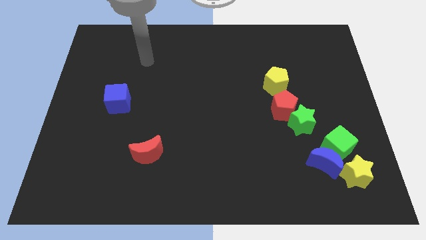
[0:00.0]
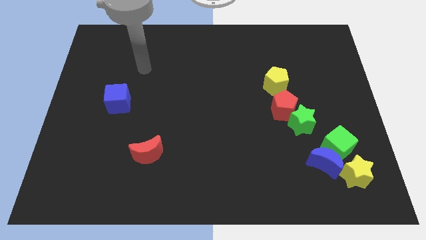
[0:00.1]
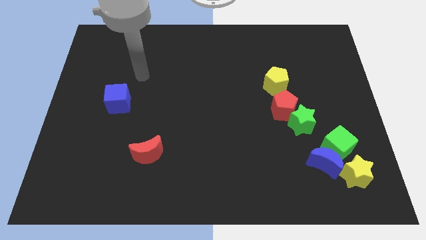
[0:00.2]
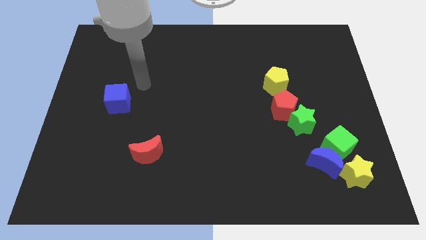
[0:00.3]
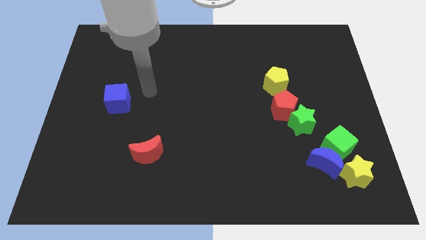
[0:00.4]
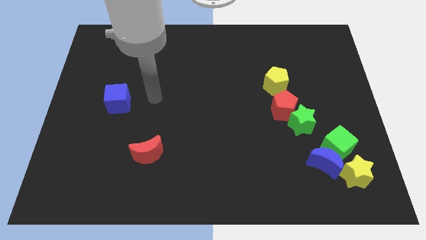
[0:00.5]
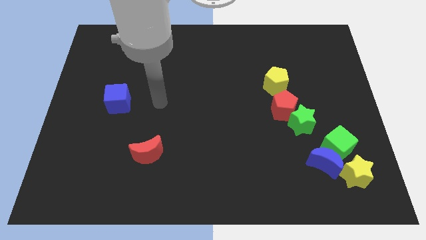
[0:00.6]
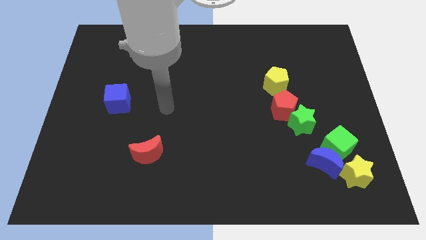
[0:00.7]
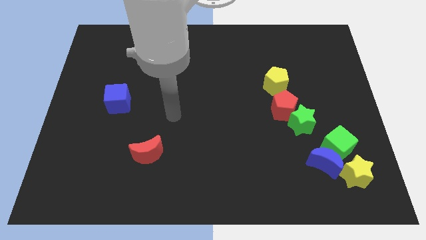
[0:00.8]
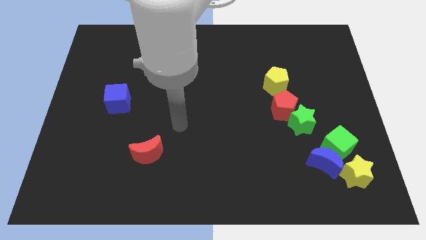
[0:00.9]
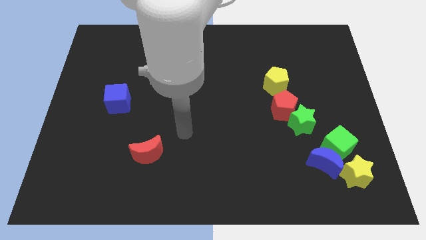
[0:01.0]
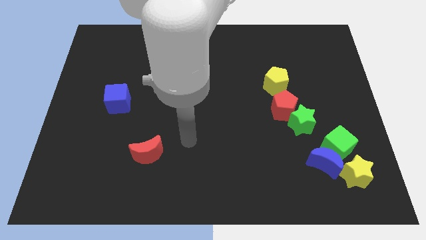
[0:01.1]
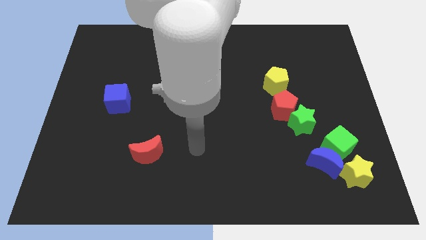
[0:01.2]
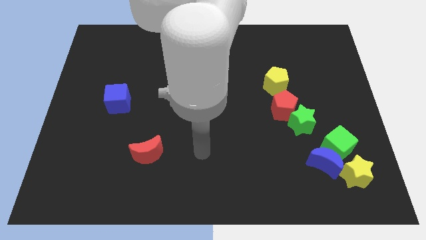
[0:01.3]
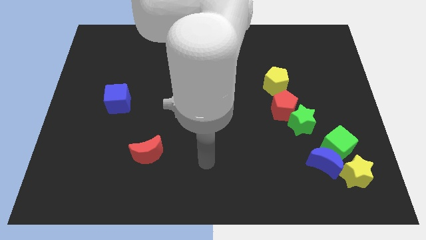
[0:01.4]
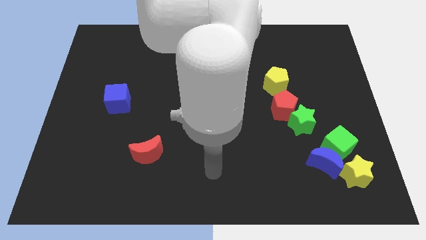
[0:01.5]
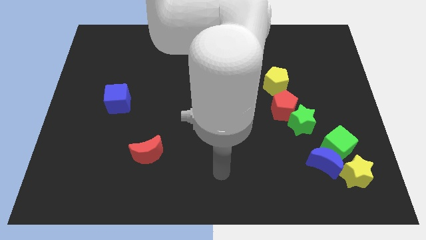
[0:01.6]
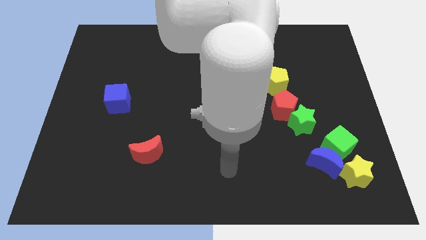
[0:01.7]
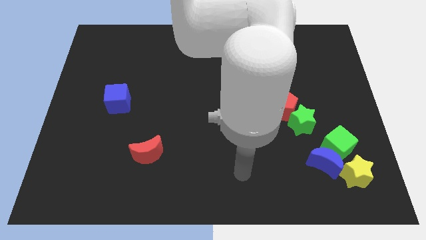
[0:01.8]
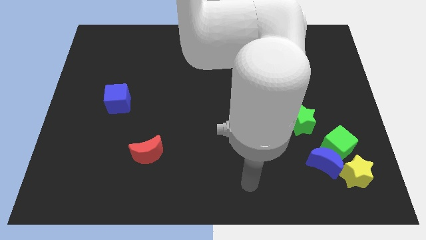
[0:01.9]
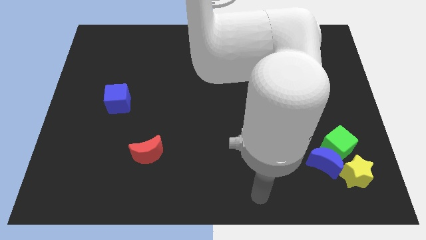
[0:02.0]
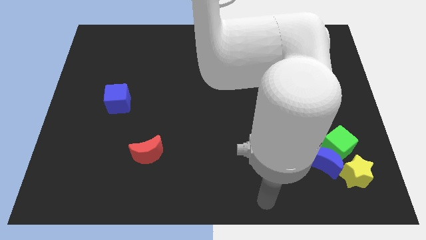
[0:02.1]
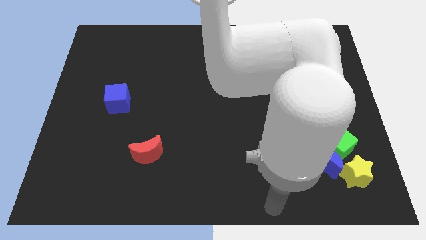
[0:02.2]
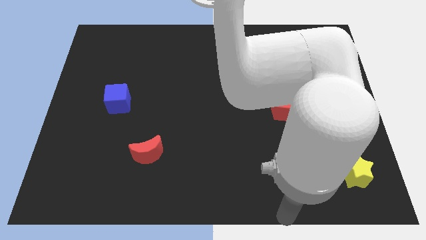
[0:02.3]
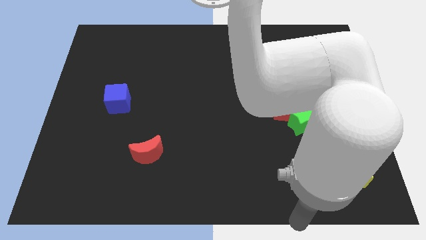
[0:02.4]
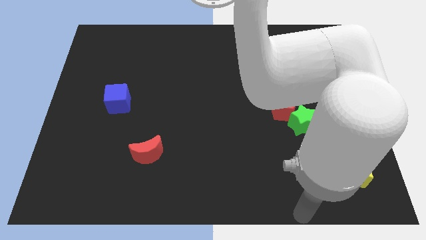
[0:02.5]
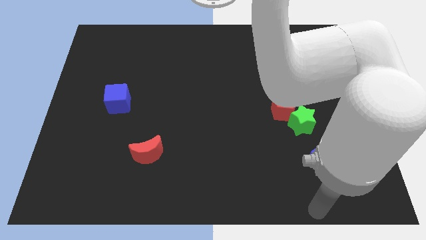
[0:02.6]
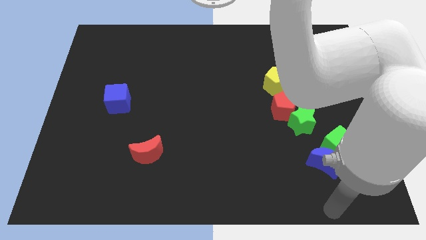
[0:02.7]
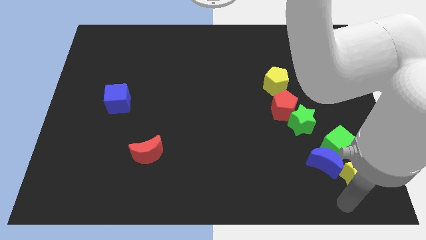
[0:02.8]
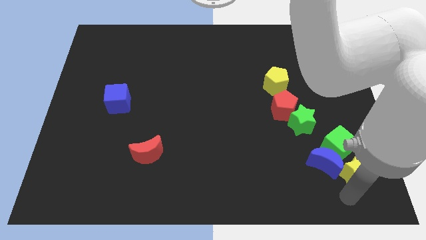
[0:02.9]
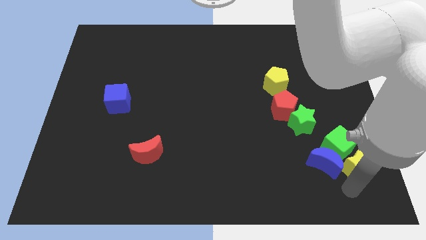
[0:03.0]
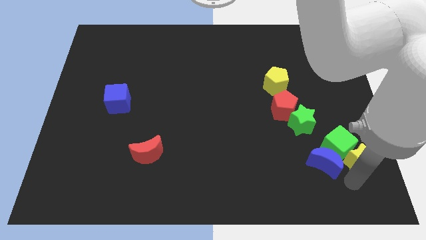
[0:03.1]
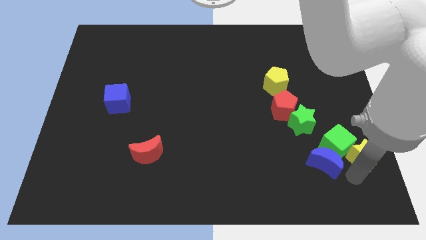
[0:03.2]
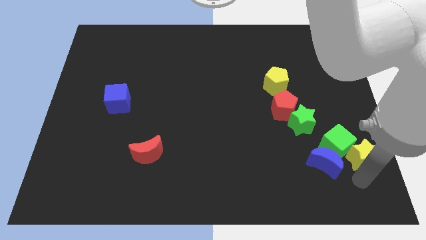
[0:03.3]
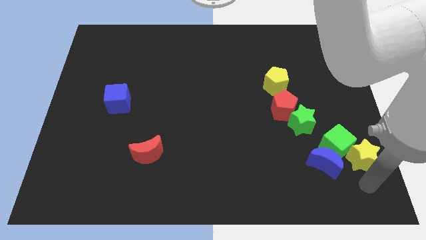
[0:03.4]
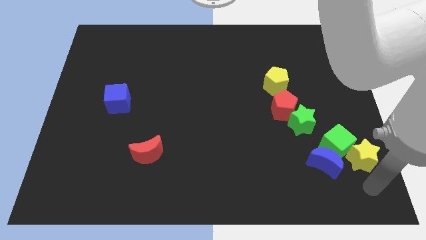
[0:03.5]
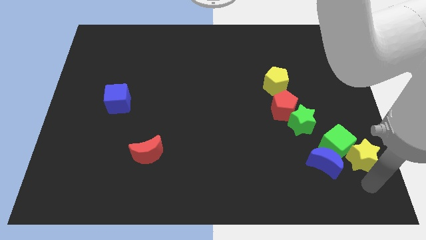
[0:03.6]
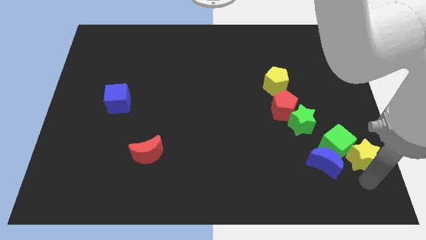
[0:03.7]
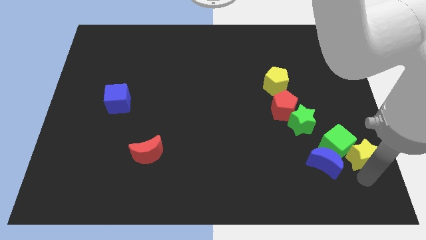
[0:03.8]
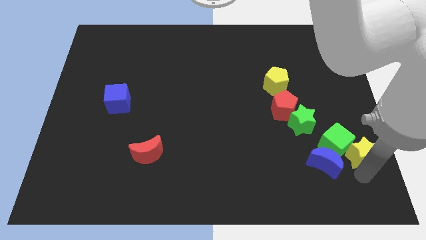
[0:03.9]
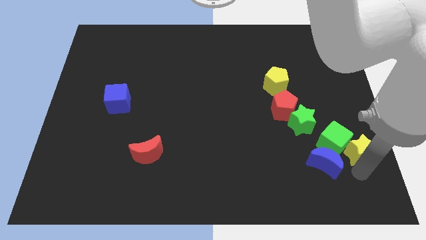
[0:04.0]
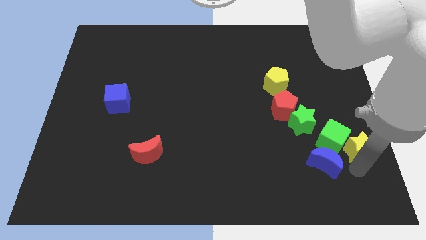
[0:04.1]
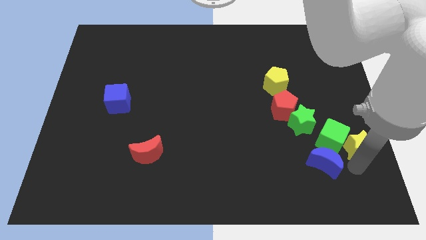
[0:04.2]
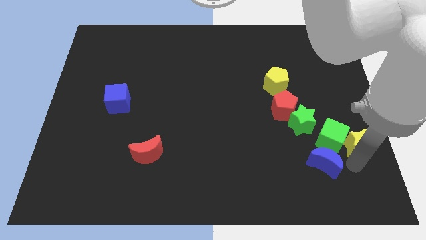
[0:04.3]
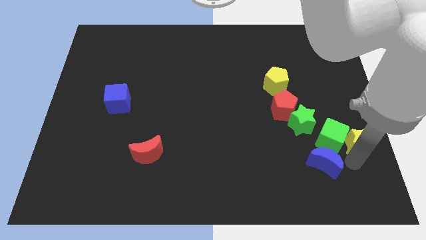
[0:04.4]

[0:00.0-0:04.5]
slightly move the yellow star up

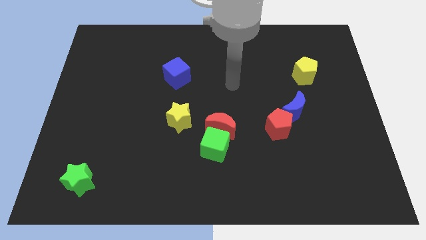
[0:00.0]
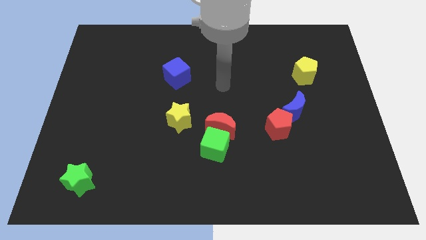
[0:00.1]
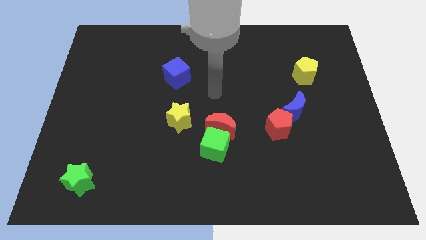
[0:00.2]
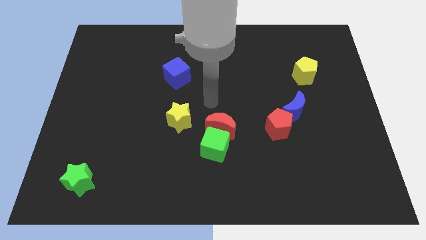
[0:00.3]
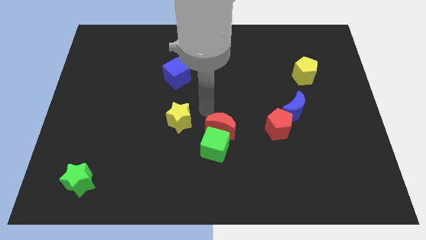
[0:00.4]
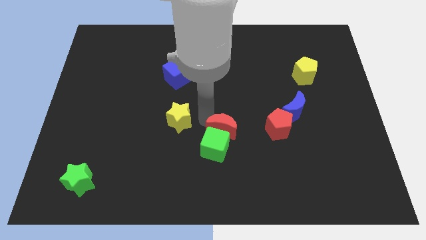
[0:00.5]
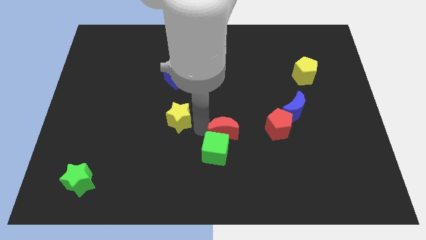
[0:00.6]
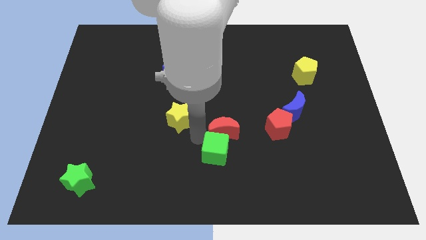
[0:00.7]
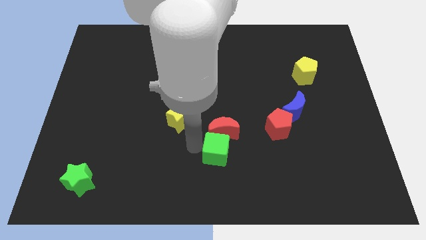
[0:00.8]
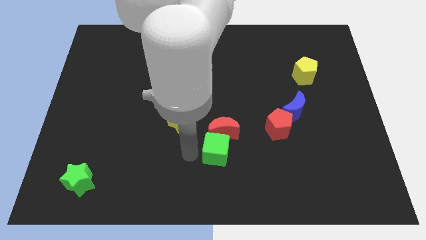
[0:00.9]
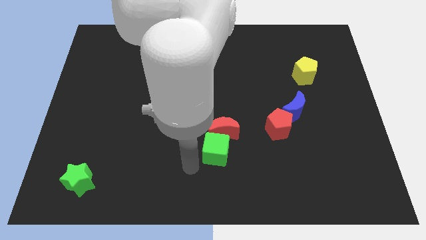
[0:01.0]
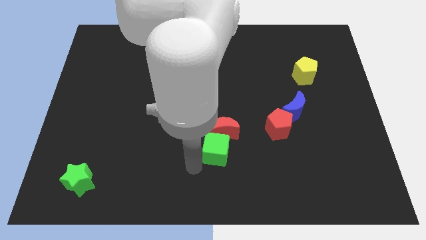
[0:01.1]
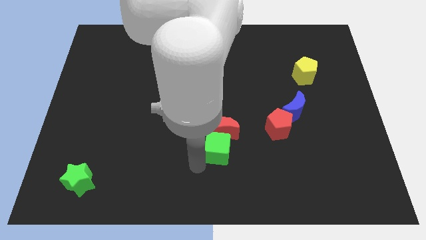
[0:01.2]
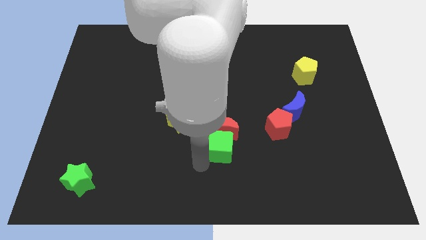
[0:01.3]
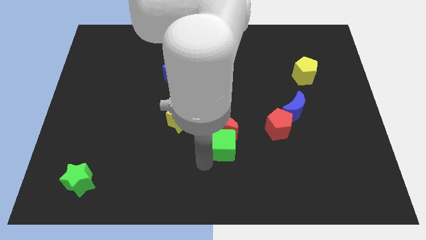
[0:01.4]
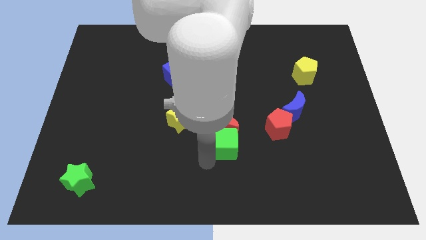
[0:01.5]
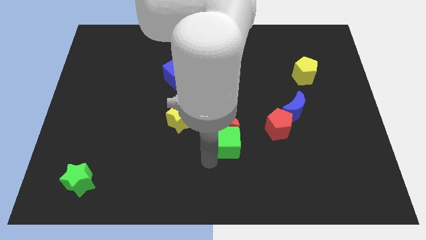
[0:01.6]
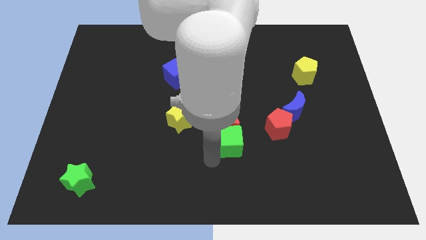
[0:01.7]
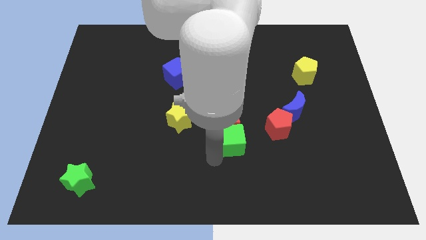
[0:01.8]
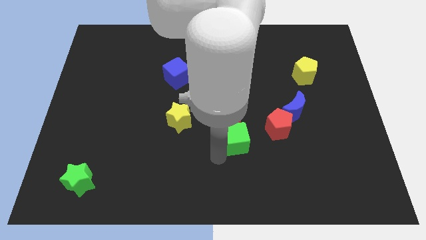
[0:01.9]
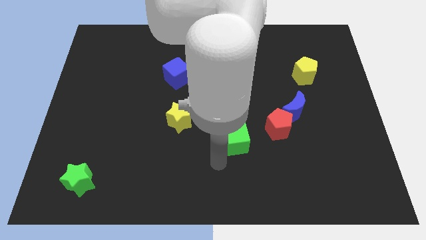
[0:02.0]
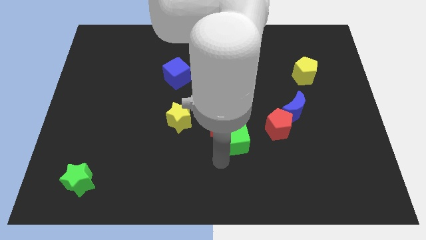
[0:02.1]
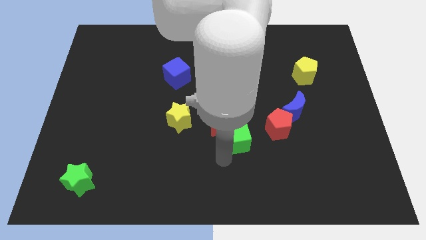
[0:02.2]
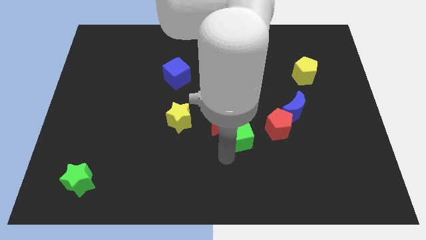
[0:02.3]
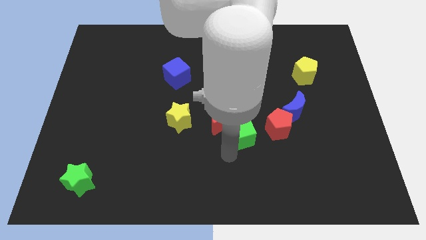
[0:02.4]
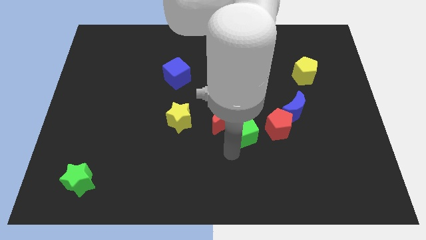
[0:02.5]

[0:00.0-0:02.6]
move the green cube diagonally up and to the right a little bit

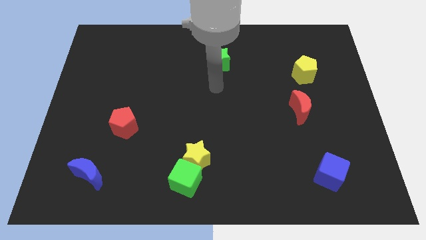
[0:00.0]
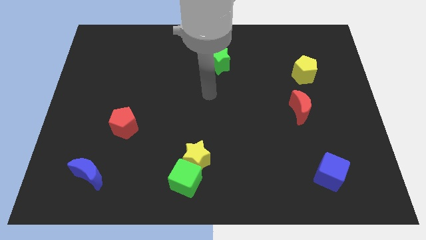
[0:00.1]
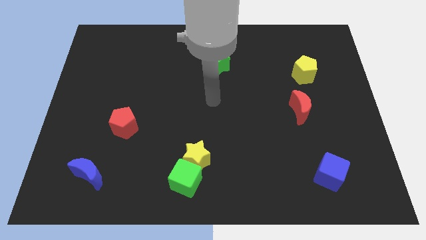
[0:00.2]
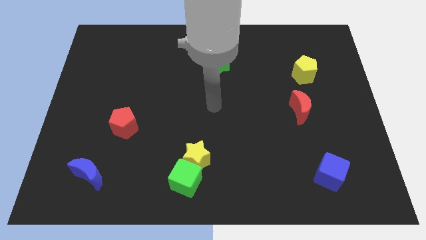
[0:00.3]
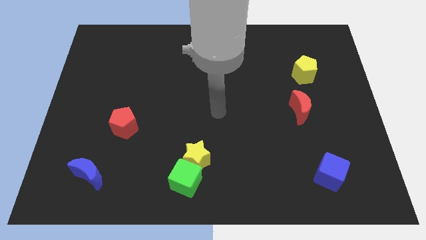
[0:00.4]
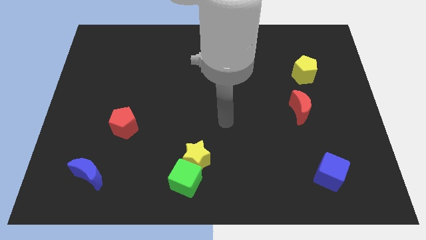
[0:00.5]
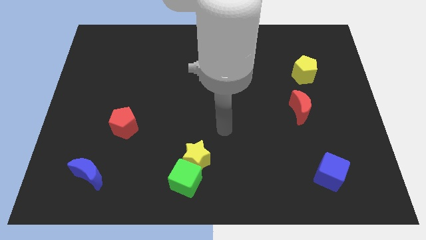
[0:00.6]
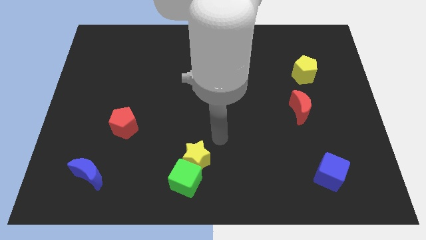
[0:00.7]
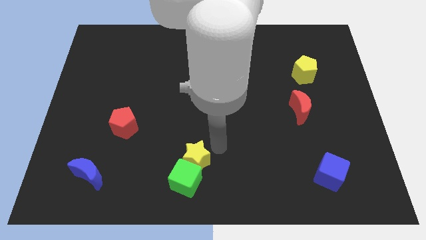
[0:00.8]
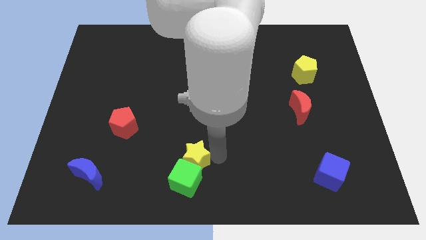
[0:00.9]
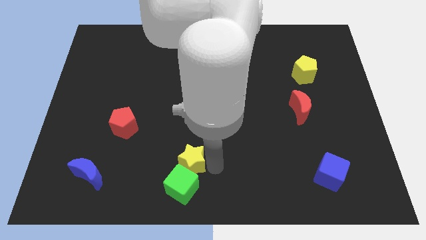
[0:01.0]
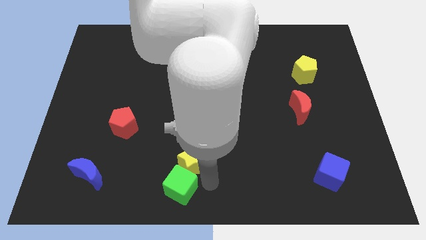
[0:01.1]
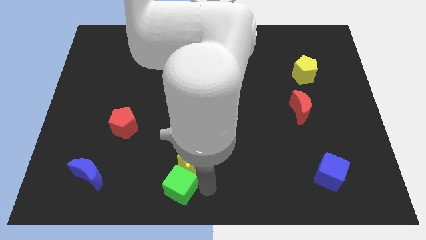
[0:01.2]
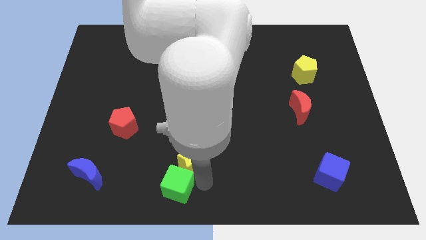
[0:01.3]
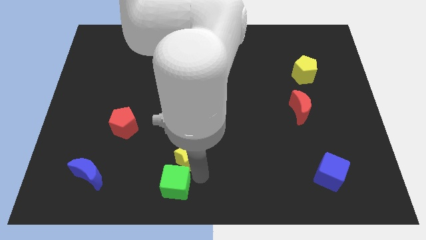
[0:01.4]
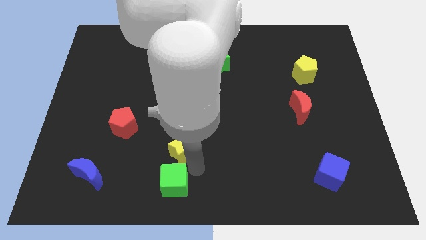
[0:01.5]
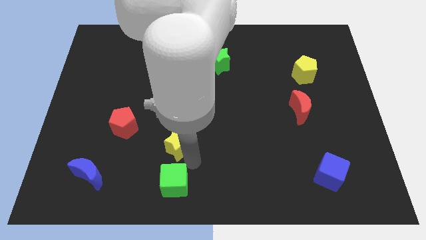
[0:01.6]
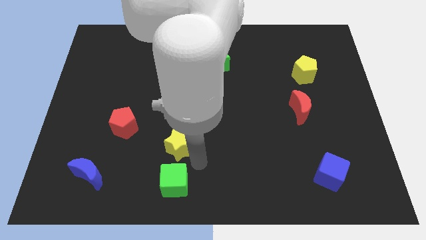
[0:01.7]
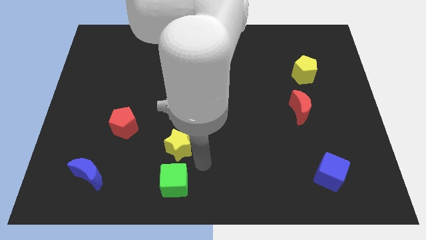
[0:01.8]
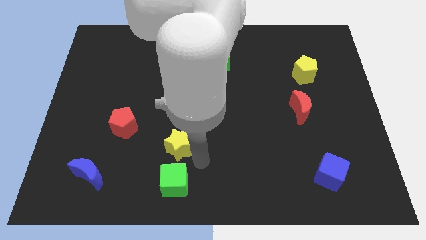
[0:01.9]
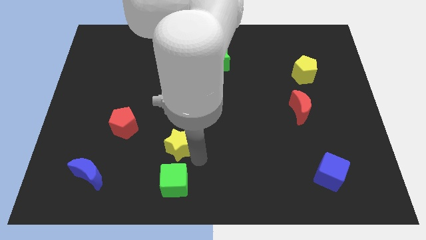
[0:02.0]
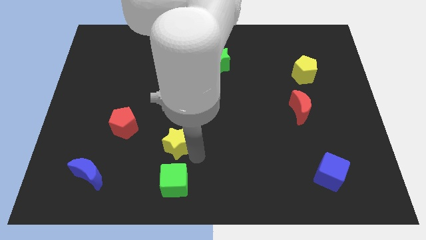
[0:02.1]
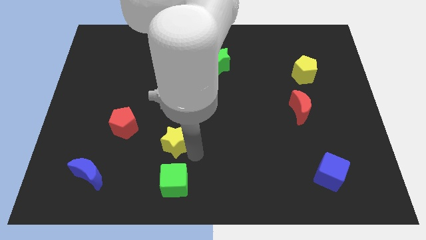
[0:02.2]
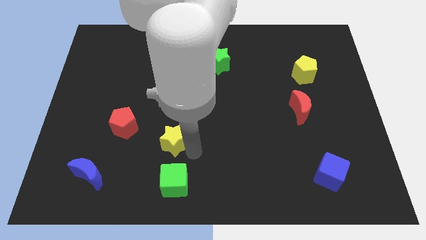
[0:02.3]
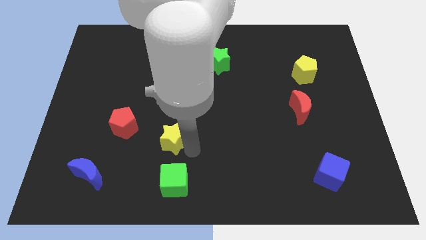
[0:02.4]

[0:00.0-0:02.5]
push the yellow star diagonally upwards and left a bit
